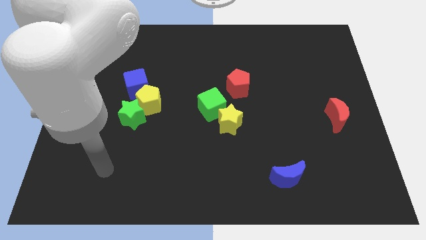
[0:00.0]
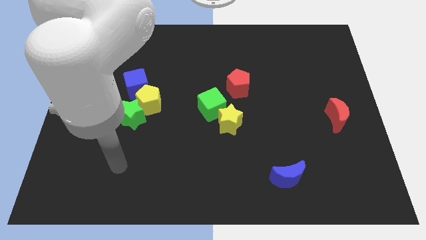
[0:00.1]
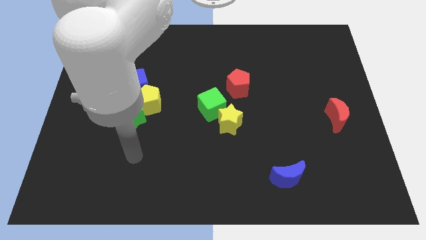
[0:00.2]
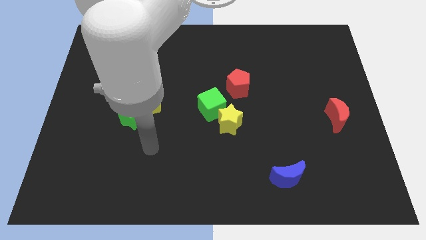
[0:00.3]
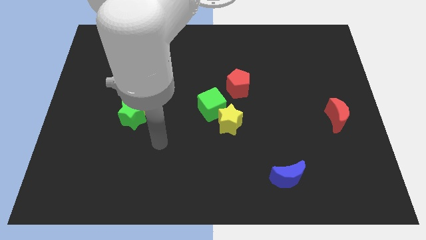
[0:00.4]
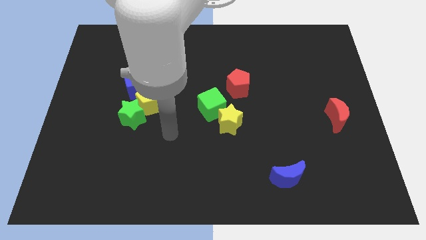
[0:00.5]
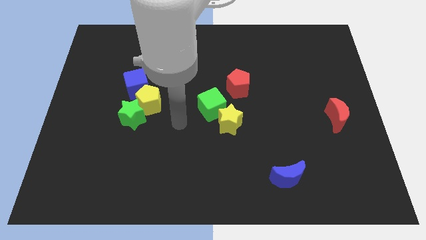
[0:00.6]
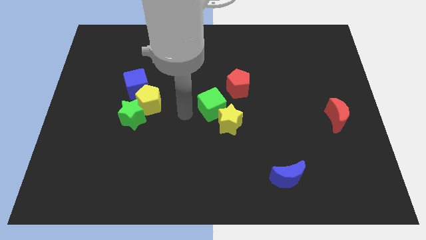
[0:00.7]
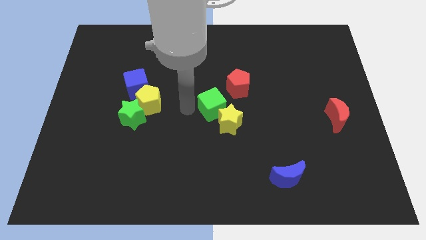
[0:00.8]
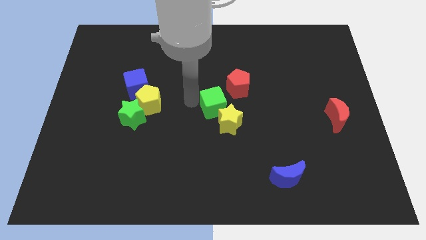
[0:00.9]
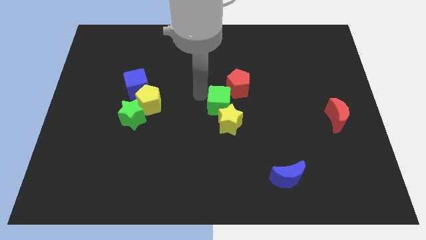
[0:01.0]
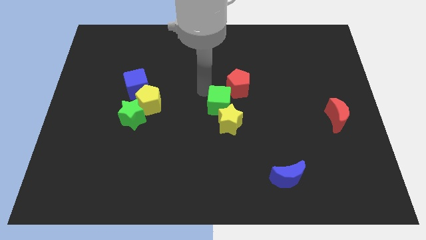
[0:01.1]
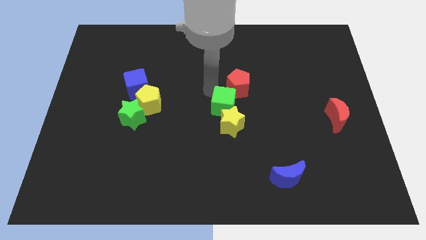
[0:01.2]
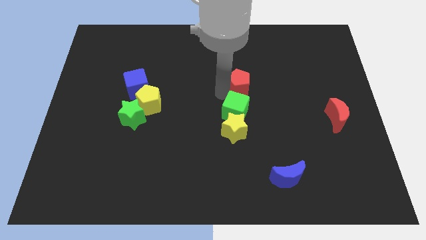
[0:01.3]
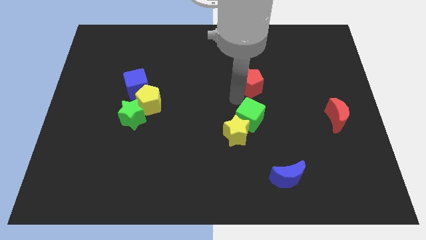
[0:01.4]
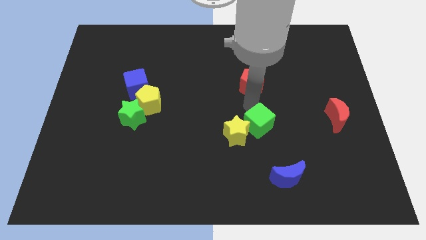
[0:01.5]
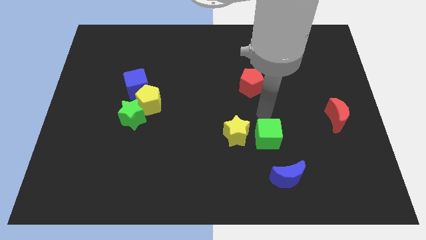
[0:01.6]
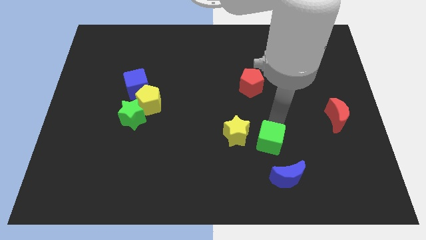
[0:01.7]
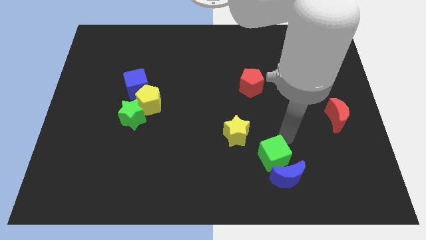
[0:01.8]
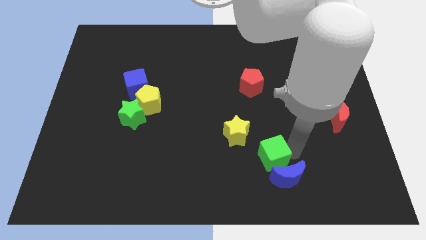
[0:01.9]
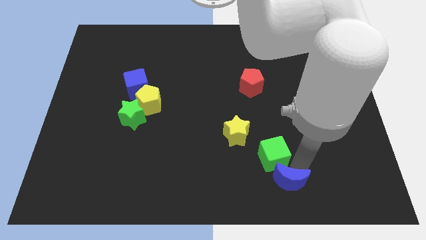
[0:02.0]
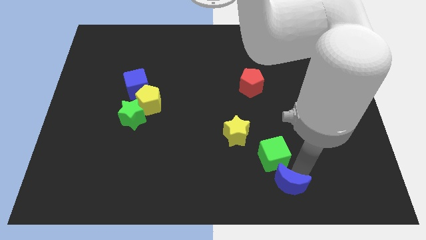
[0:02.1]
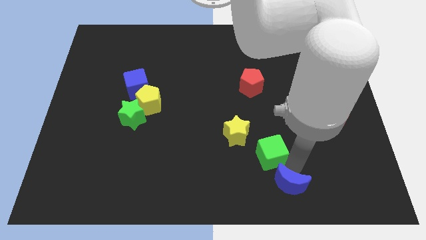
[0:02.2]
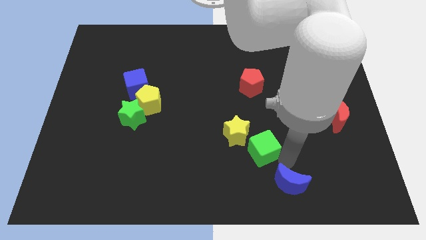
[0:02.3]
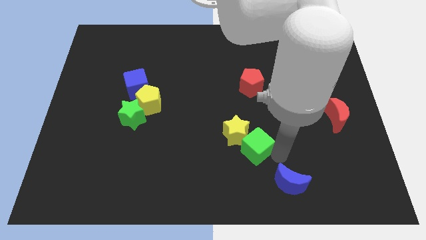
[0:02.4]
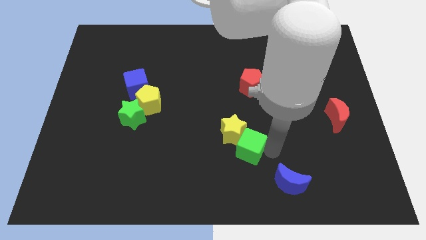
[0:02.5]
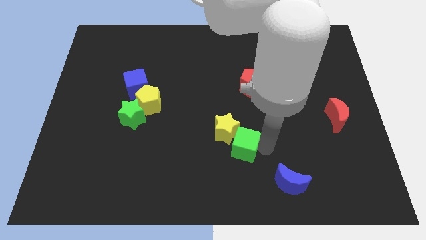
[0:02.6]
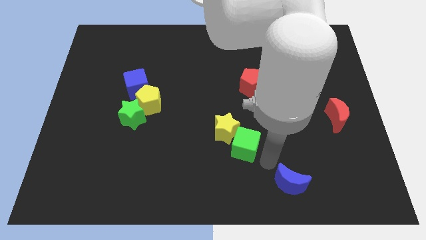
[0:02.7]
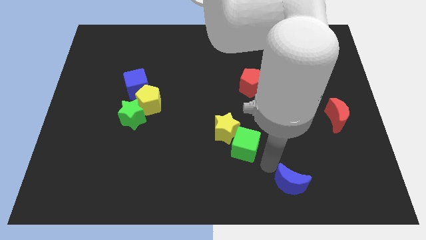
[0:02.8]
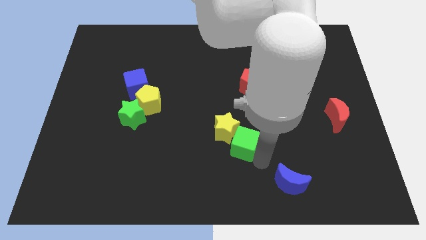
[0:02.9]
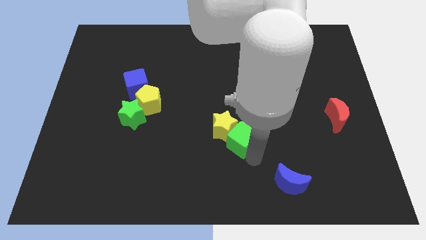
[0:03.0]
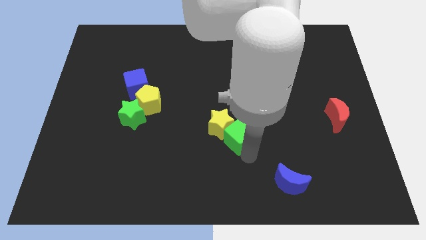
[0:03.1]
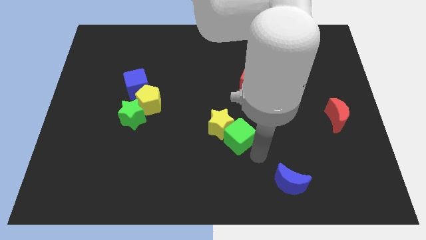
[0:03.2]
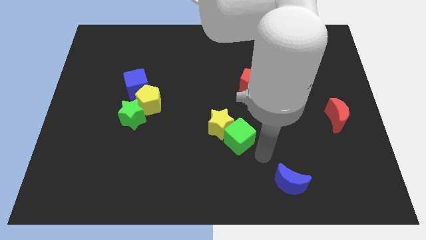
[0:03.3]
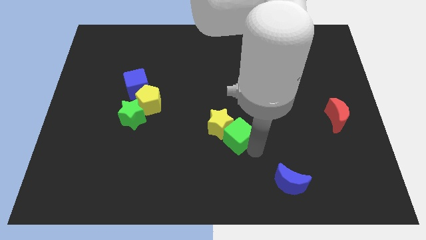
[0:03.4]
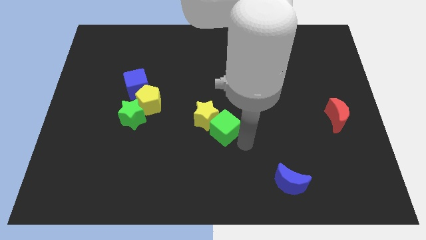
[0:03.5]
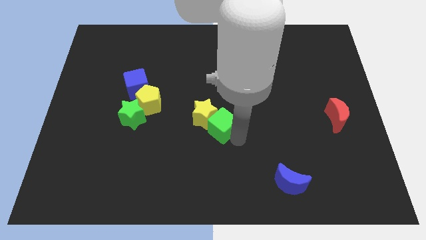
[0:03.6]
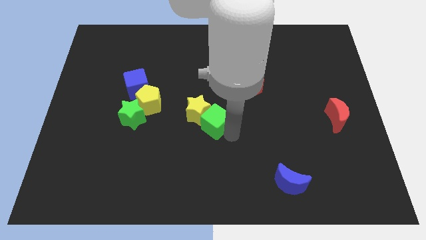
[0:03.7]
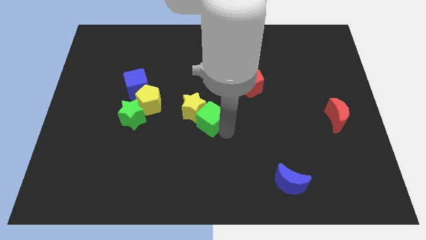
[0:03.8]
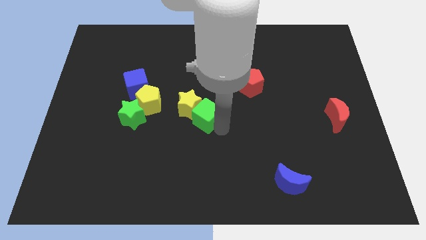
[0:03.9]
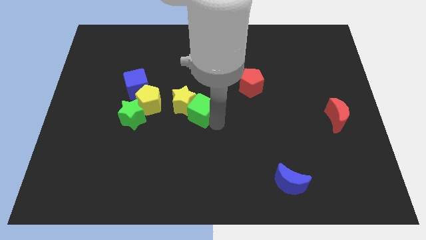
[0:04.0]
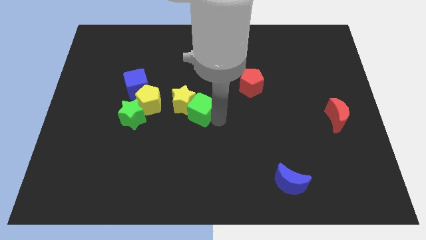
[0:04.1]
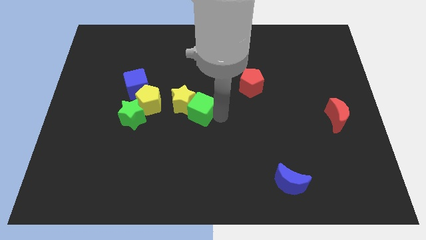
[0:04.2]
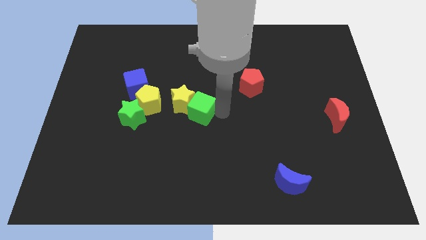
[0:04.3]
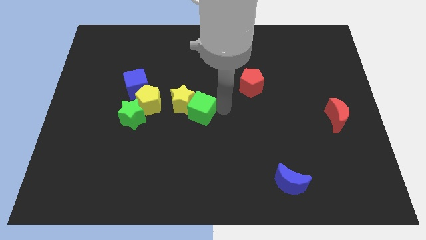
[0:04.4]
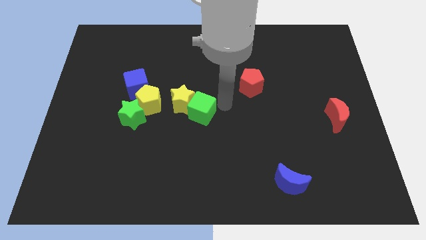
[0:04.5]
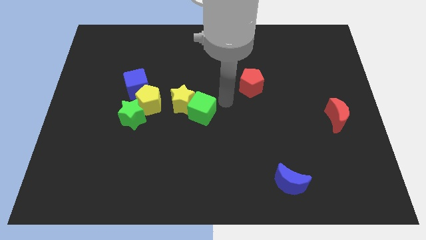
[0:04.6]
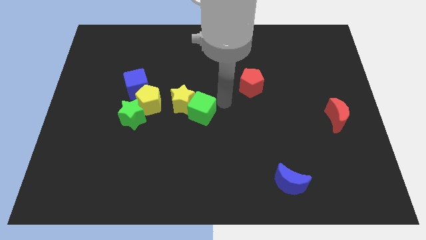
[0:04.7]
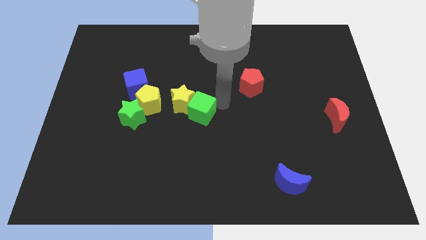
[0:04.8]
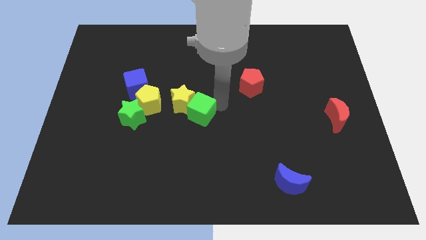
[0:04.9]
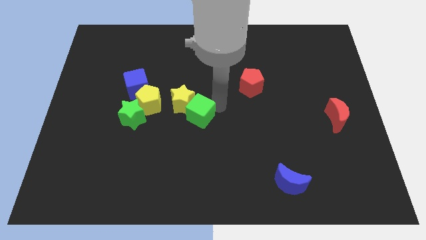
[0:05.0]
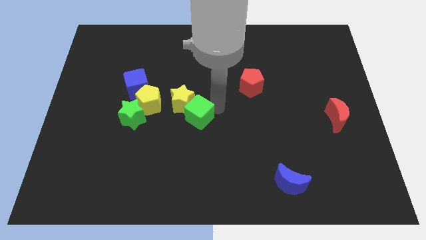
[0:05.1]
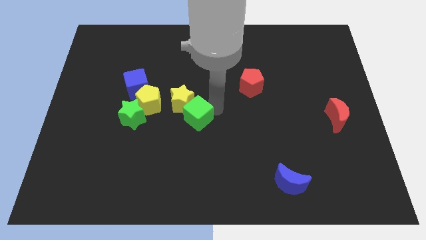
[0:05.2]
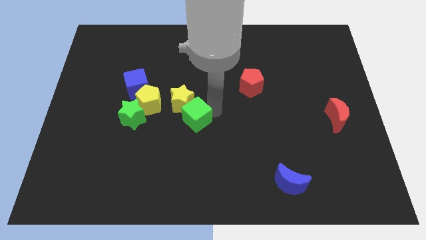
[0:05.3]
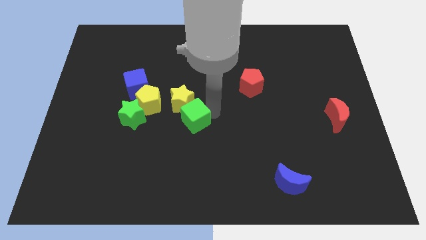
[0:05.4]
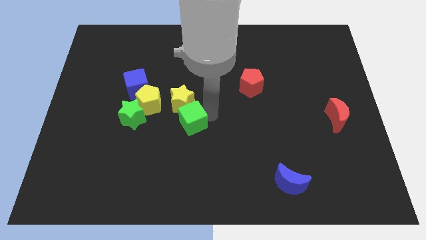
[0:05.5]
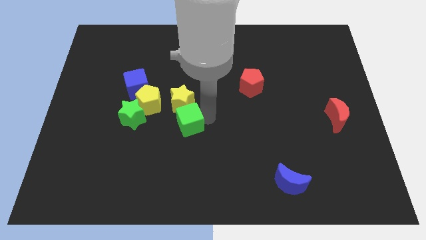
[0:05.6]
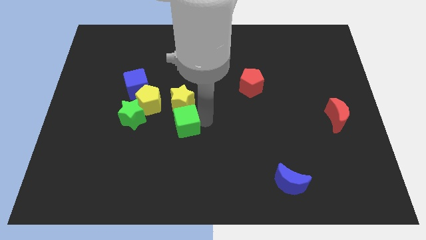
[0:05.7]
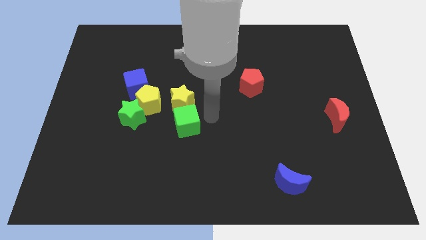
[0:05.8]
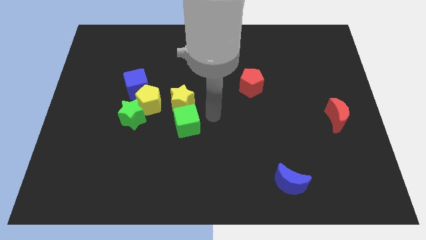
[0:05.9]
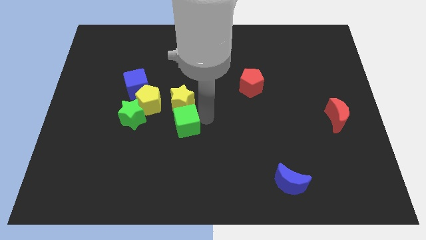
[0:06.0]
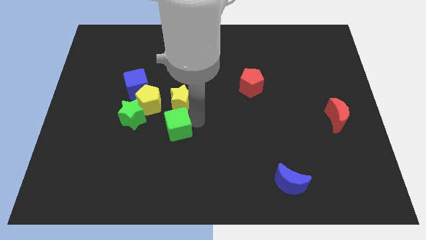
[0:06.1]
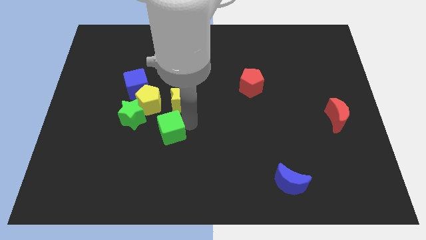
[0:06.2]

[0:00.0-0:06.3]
move the green cube diagonally down and to the right of the green star

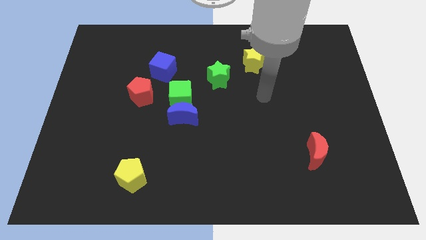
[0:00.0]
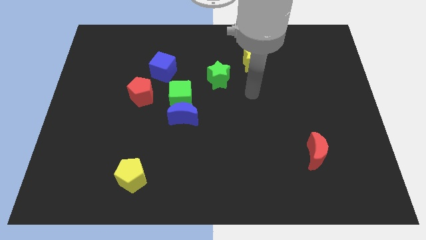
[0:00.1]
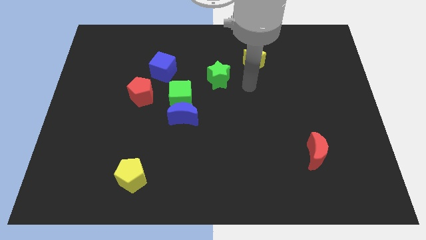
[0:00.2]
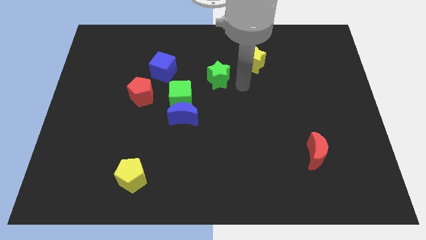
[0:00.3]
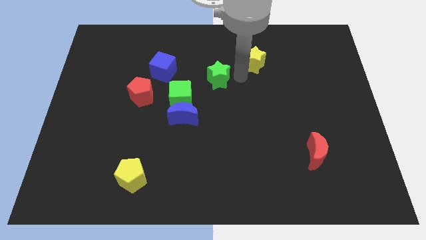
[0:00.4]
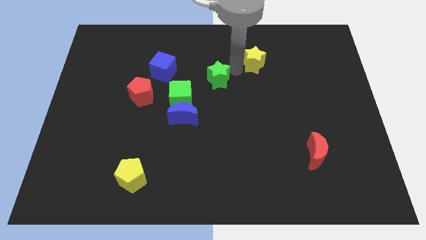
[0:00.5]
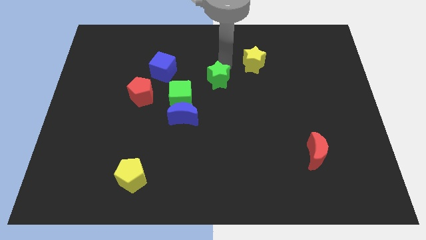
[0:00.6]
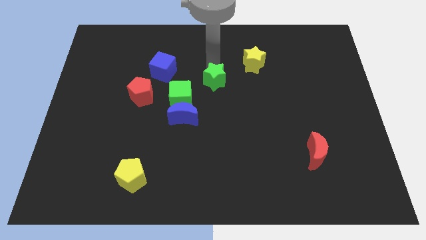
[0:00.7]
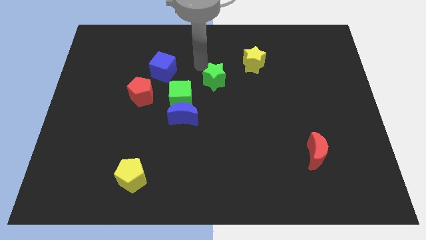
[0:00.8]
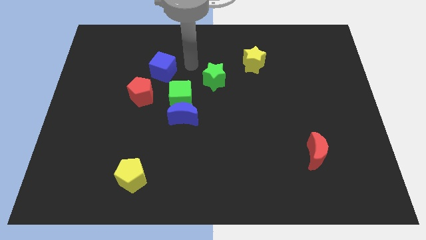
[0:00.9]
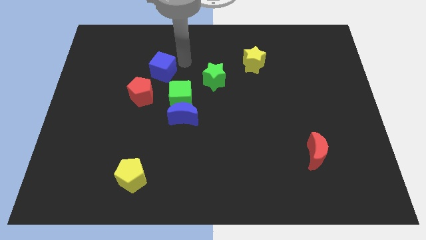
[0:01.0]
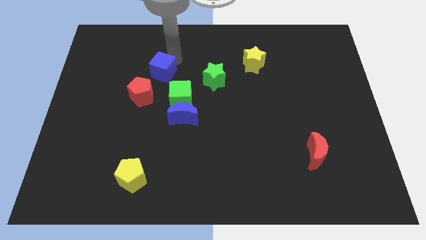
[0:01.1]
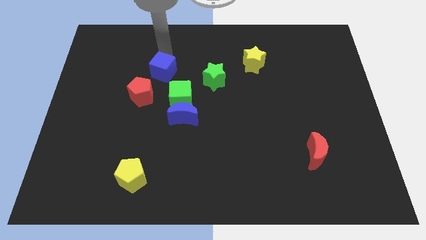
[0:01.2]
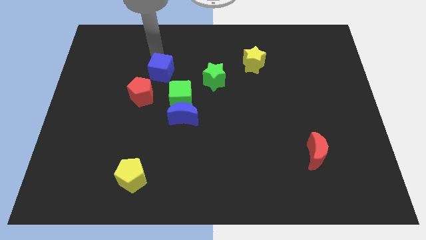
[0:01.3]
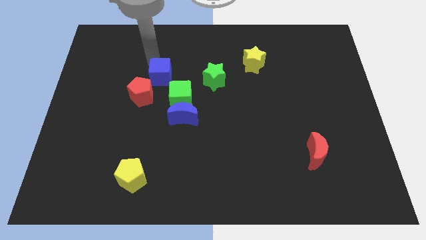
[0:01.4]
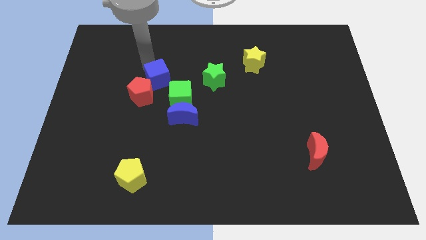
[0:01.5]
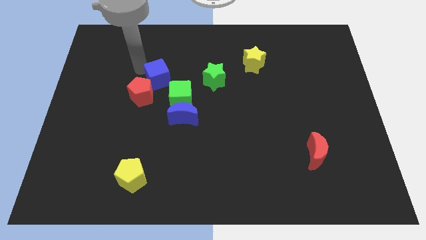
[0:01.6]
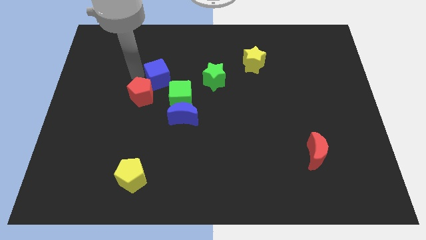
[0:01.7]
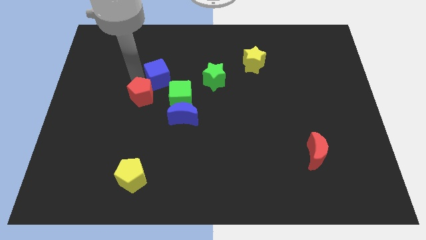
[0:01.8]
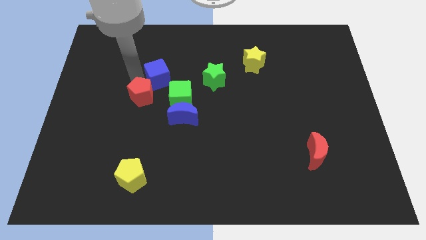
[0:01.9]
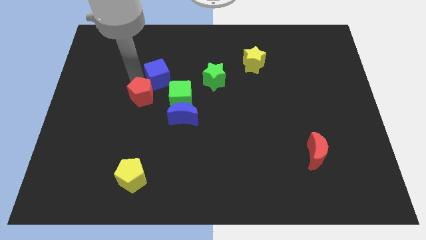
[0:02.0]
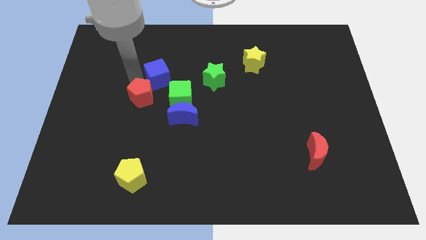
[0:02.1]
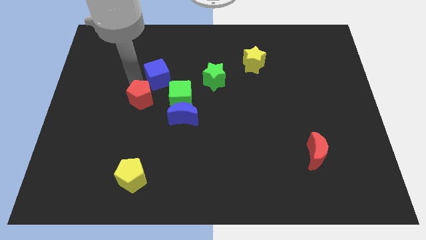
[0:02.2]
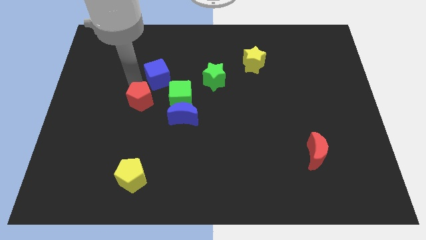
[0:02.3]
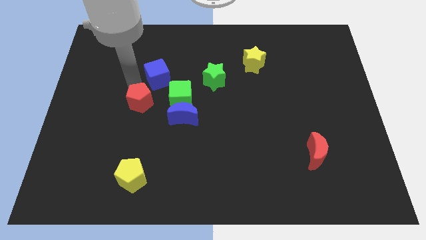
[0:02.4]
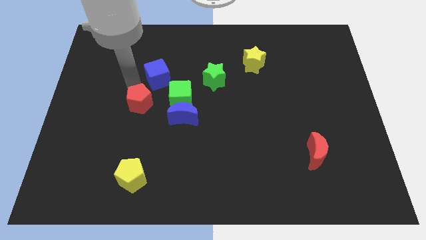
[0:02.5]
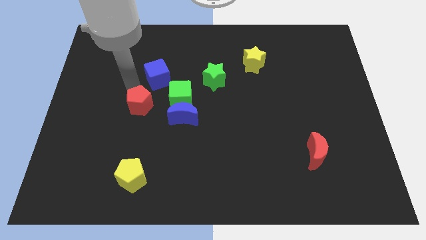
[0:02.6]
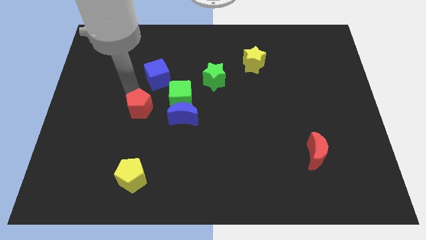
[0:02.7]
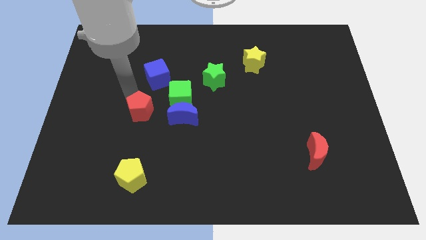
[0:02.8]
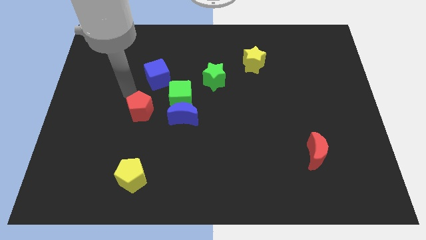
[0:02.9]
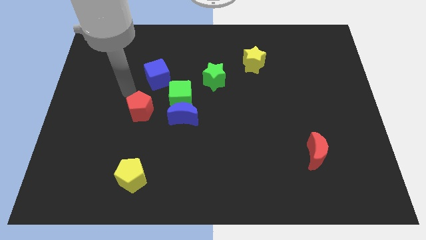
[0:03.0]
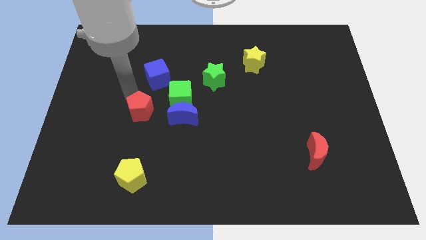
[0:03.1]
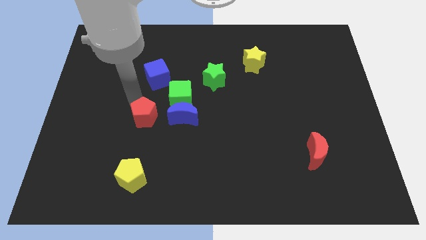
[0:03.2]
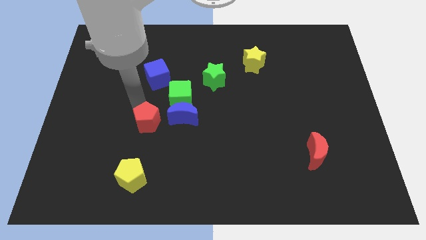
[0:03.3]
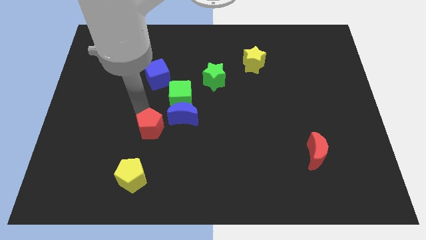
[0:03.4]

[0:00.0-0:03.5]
push the red pentagon to the bottom left of the blue moon
